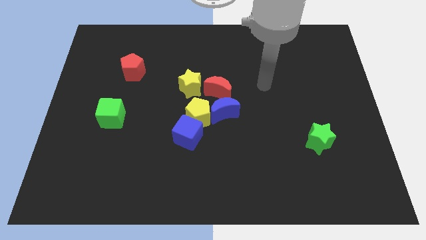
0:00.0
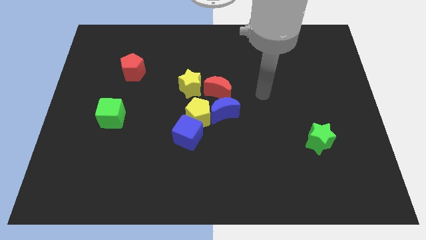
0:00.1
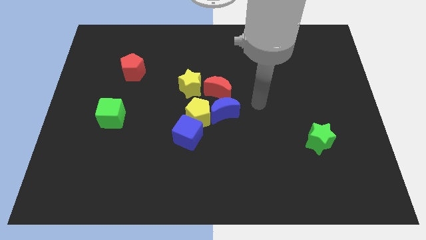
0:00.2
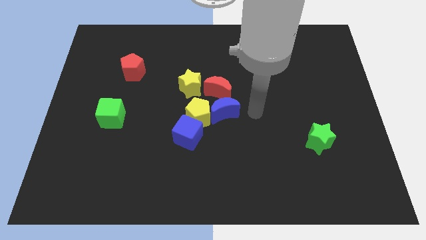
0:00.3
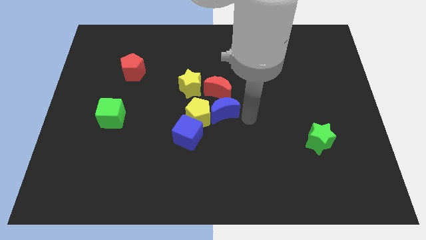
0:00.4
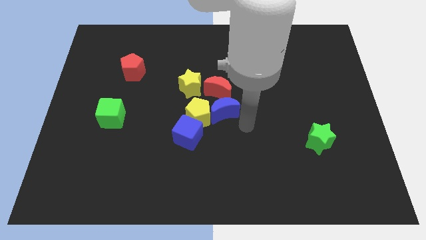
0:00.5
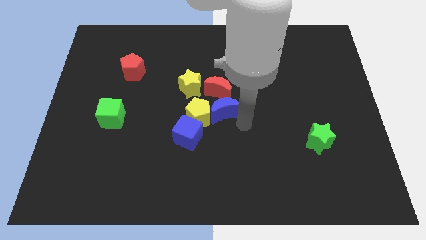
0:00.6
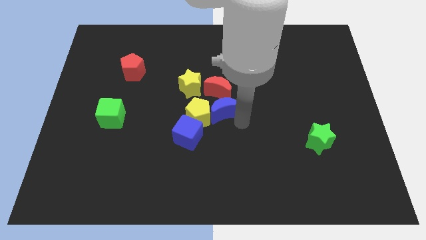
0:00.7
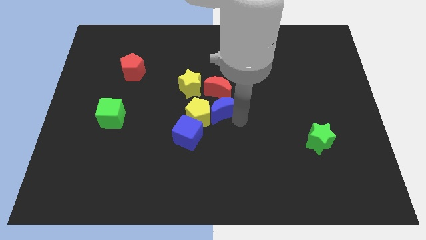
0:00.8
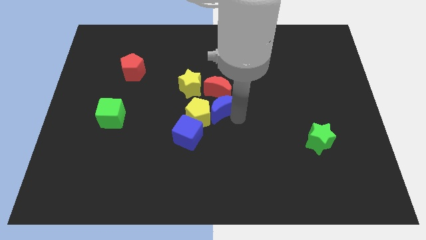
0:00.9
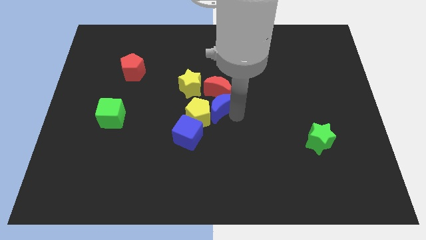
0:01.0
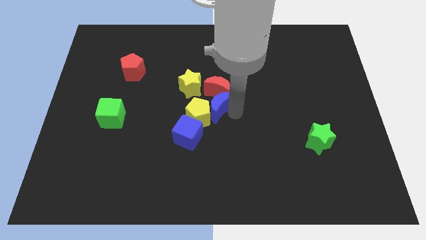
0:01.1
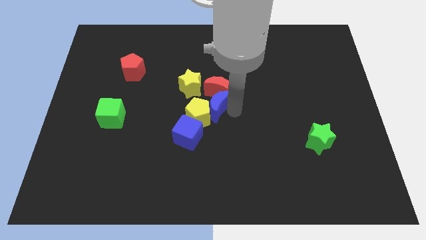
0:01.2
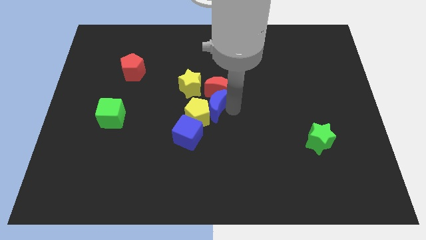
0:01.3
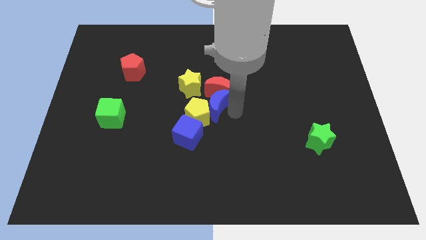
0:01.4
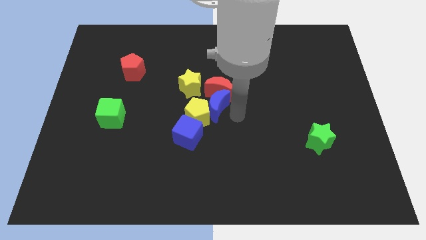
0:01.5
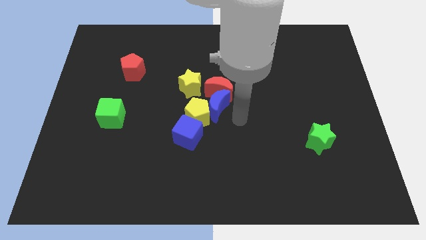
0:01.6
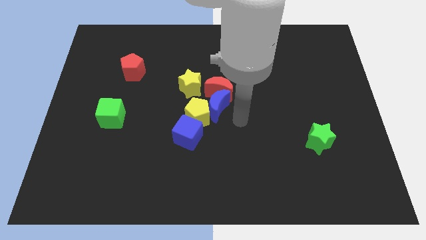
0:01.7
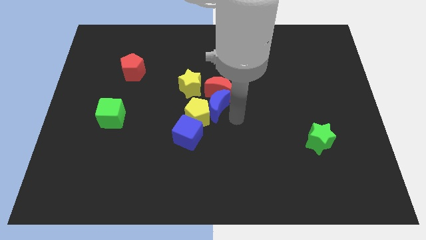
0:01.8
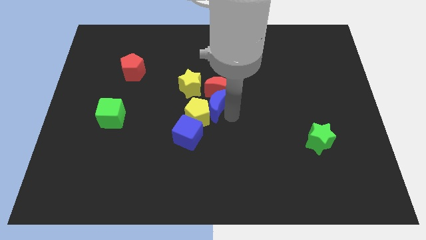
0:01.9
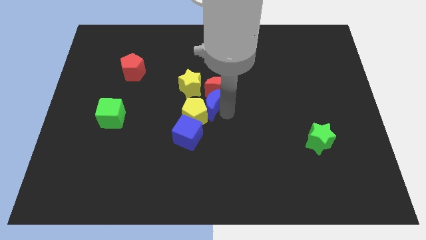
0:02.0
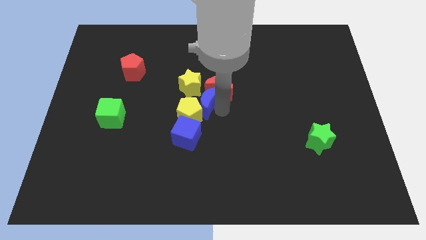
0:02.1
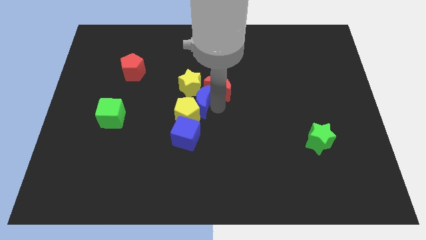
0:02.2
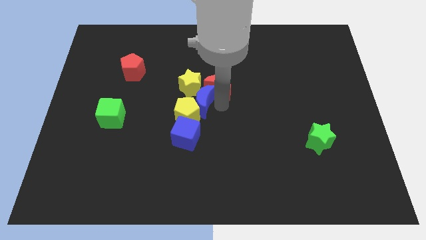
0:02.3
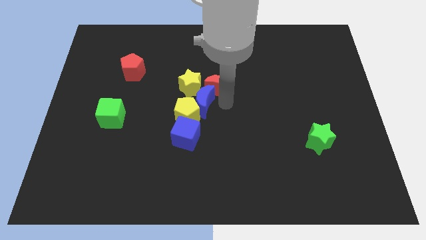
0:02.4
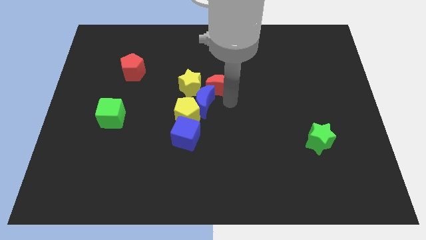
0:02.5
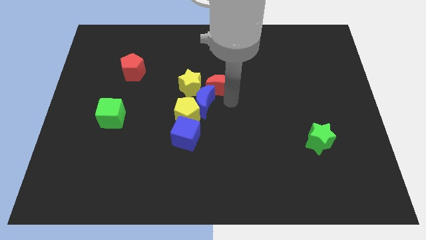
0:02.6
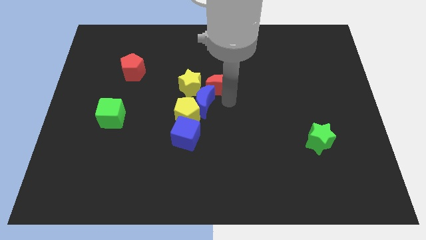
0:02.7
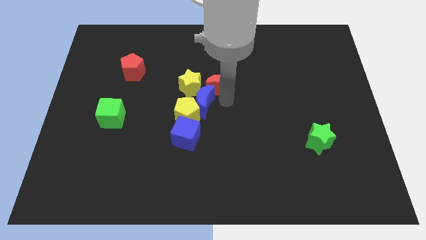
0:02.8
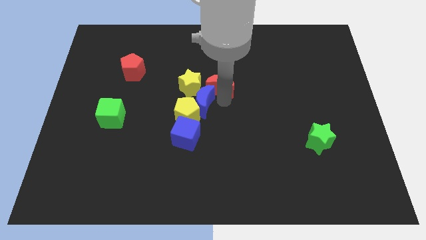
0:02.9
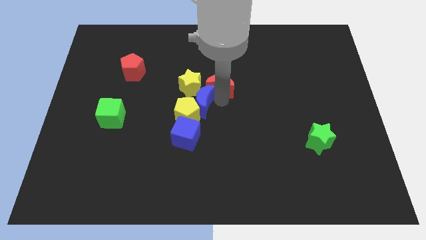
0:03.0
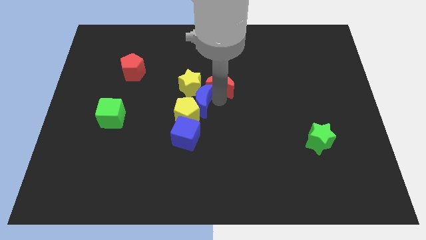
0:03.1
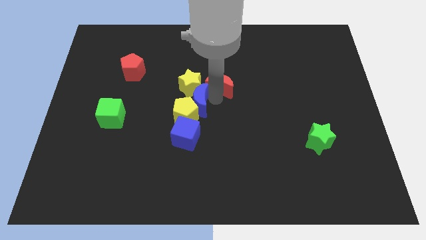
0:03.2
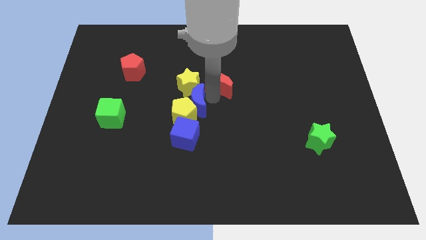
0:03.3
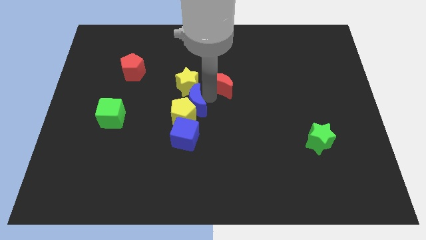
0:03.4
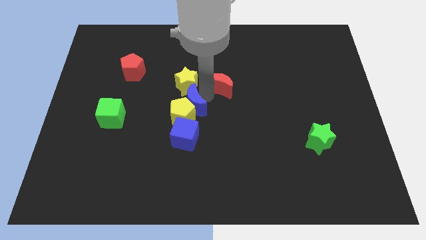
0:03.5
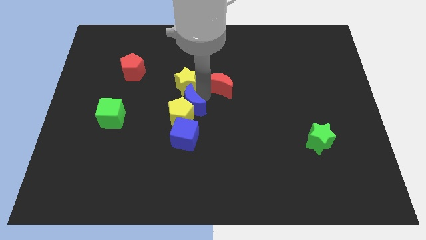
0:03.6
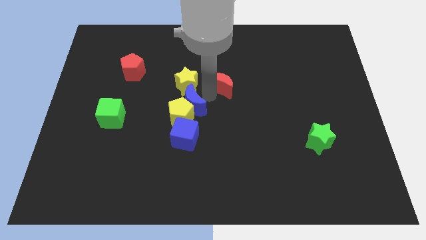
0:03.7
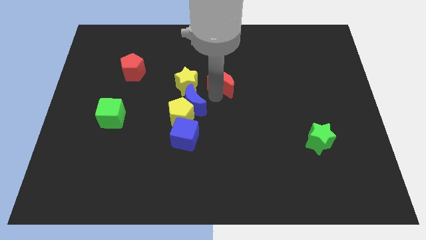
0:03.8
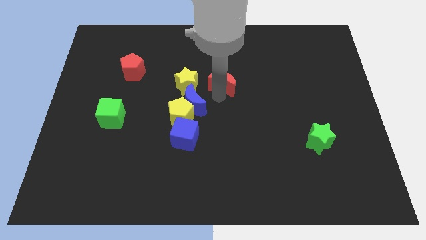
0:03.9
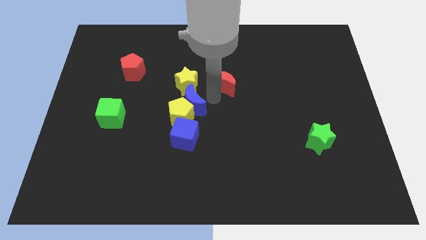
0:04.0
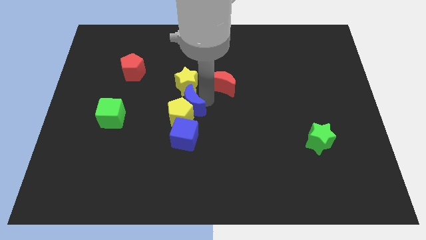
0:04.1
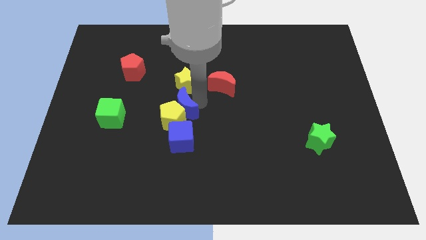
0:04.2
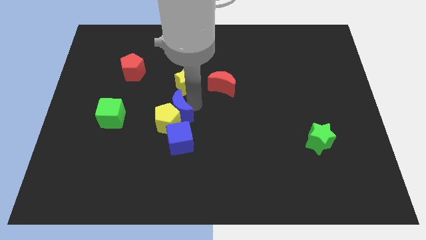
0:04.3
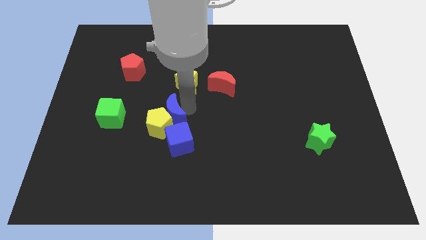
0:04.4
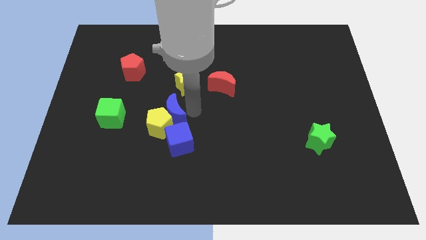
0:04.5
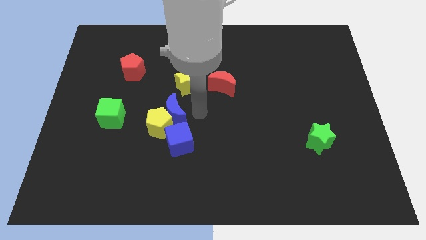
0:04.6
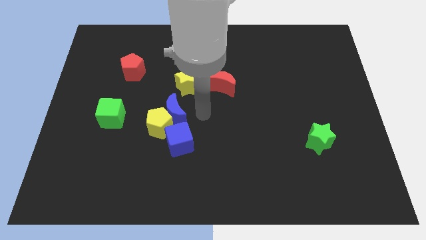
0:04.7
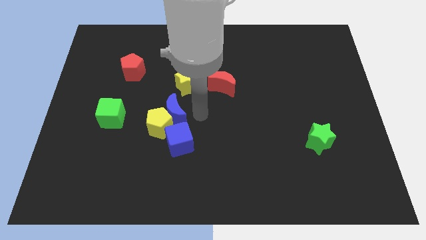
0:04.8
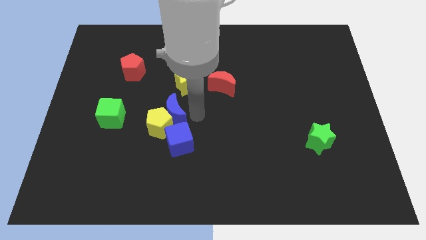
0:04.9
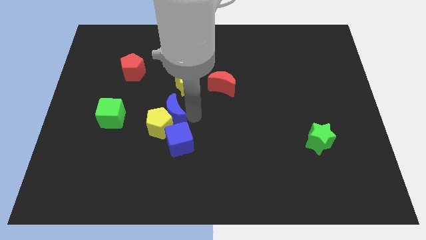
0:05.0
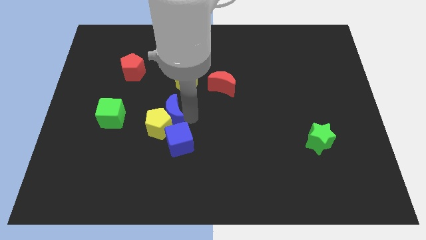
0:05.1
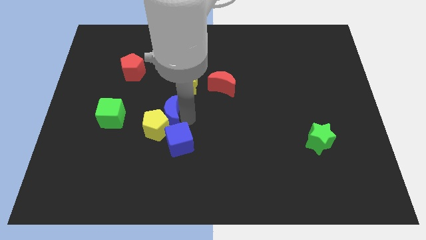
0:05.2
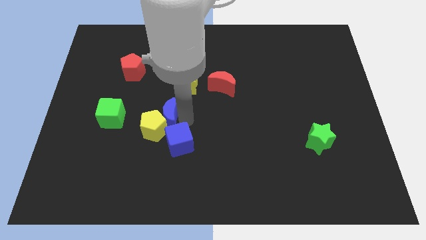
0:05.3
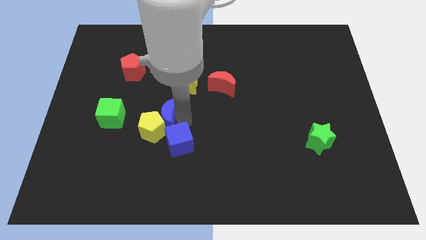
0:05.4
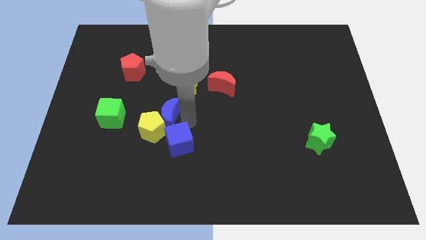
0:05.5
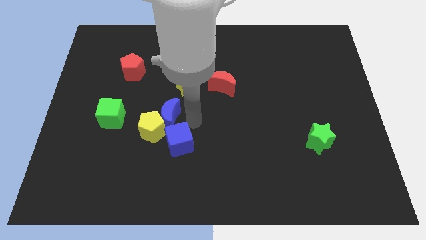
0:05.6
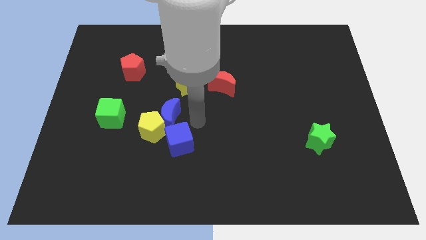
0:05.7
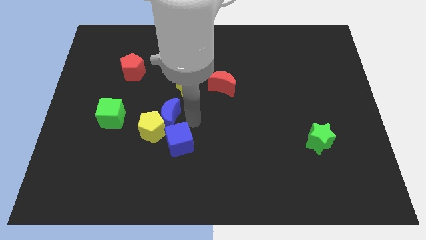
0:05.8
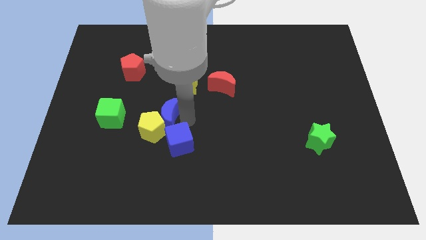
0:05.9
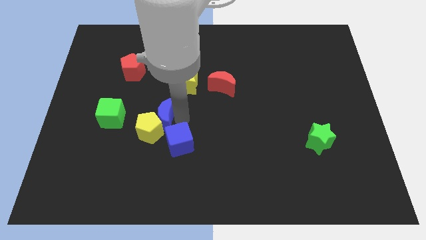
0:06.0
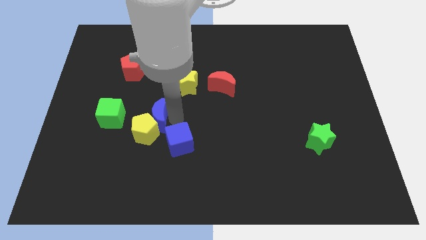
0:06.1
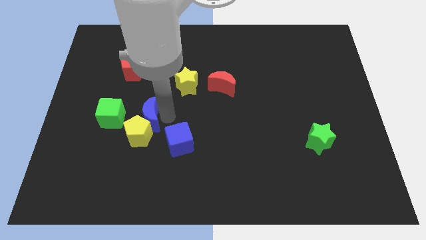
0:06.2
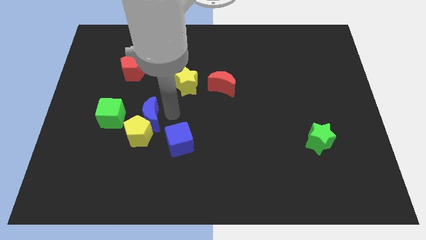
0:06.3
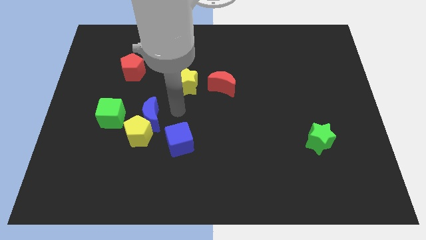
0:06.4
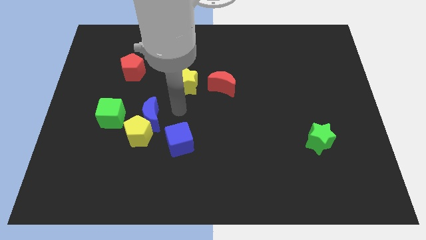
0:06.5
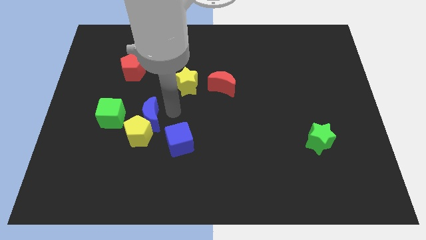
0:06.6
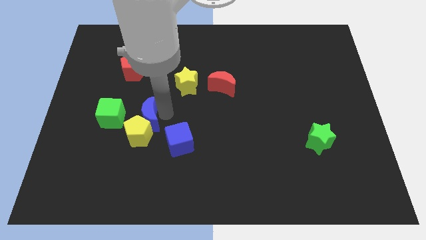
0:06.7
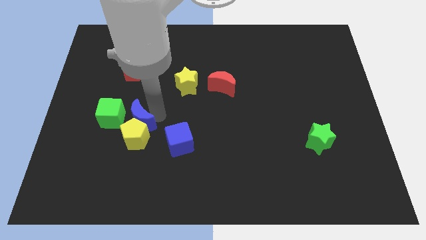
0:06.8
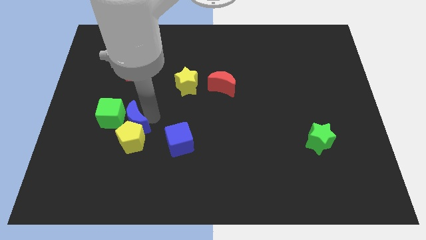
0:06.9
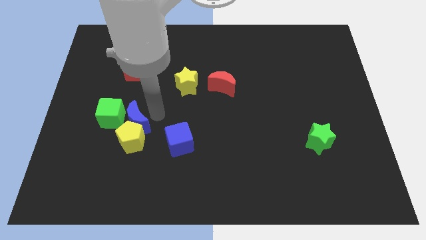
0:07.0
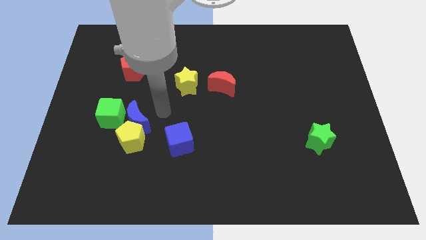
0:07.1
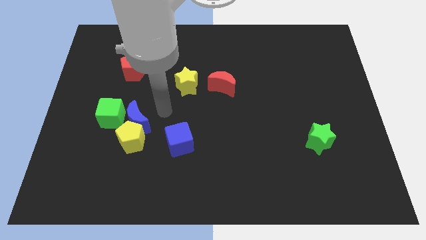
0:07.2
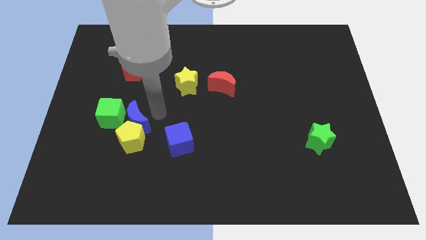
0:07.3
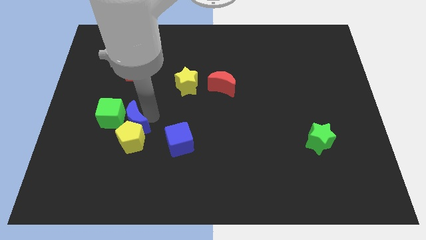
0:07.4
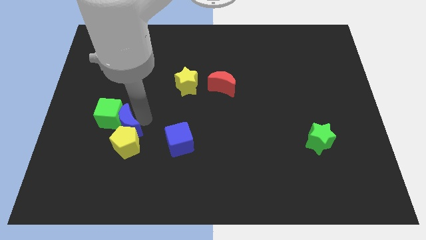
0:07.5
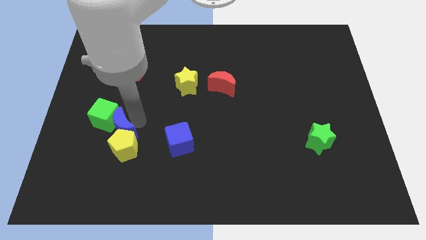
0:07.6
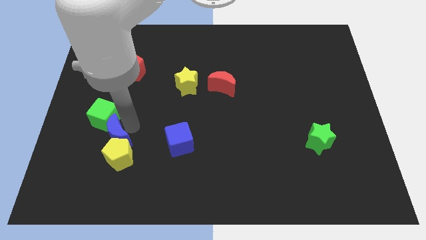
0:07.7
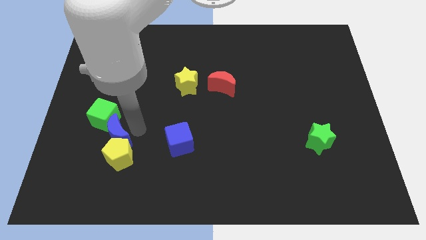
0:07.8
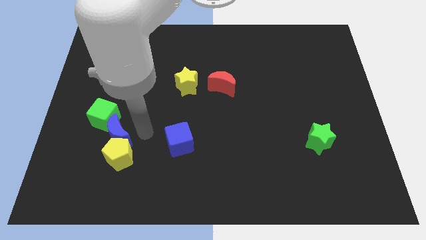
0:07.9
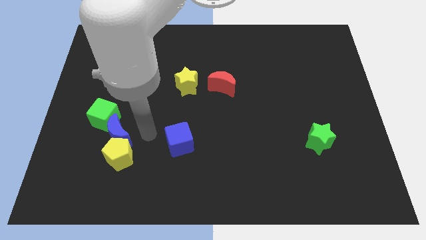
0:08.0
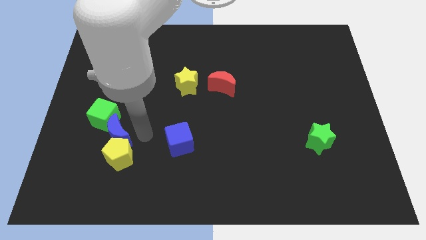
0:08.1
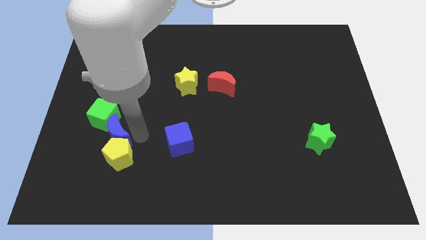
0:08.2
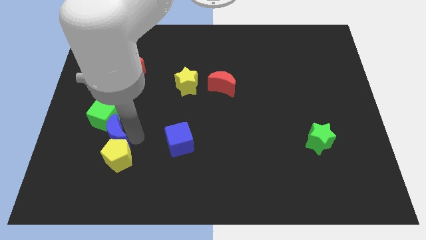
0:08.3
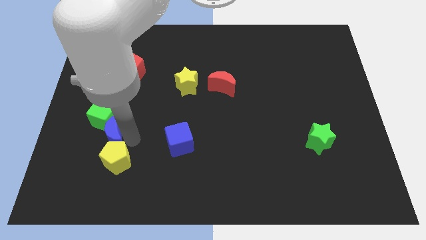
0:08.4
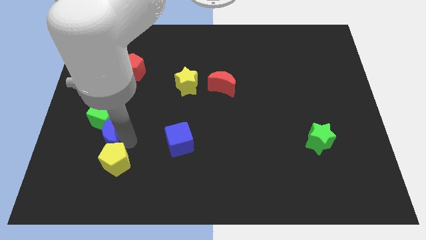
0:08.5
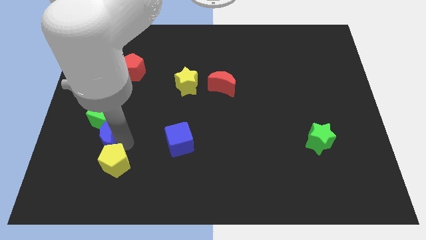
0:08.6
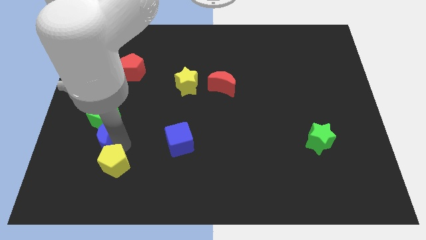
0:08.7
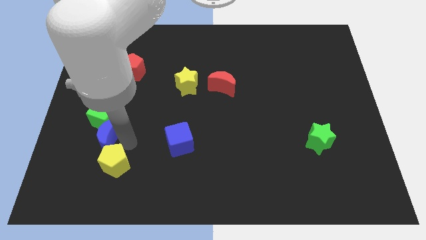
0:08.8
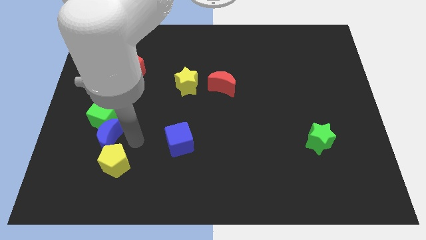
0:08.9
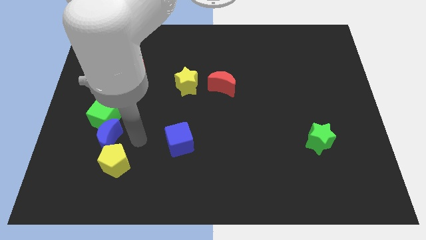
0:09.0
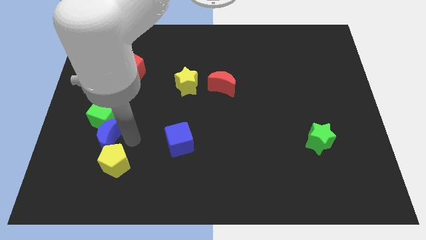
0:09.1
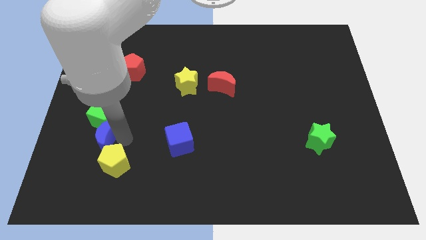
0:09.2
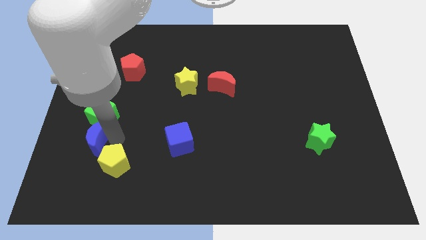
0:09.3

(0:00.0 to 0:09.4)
slide the blue moon to the bottom left side of the green cube
